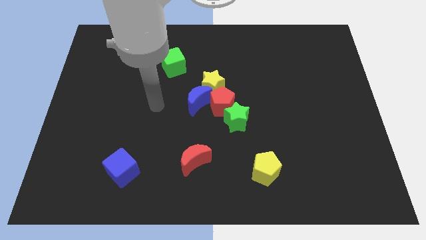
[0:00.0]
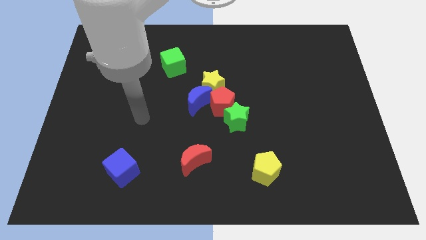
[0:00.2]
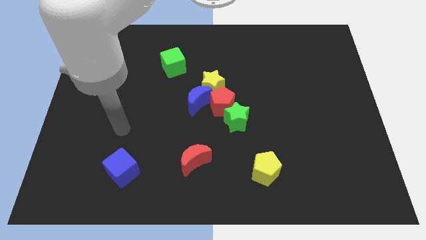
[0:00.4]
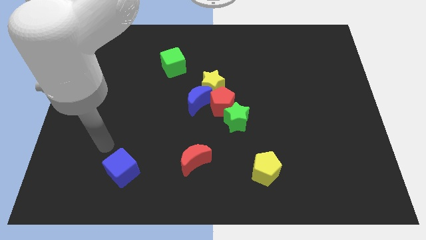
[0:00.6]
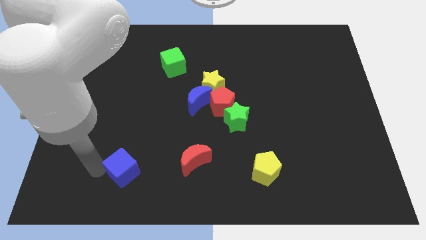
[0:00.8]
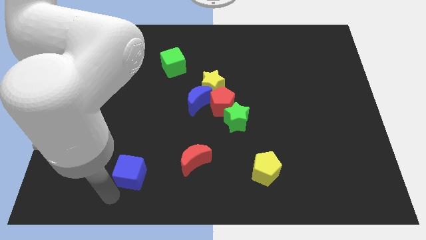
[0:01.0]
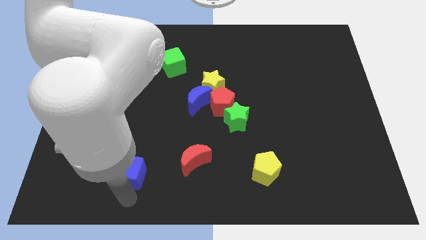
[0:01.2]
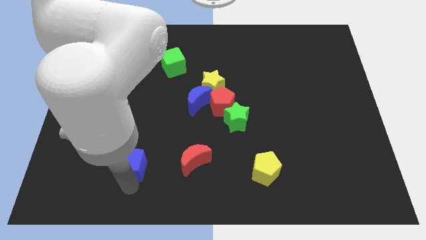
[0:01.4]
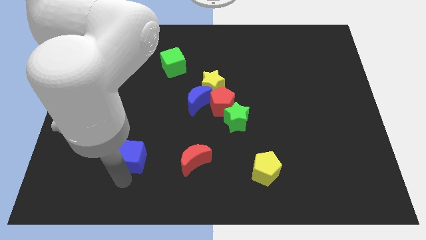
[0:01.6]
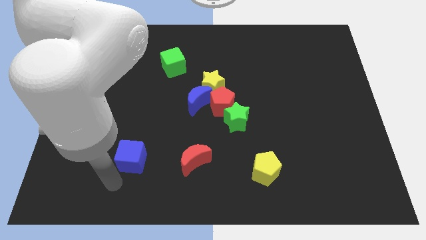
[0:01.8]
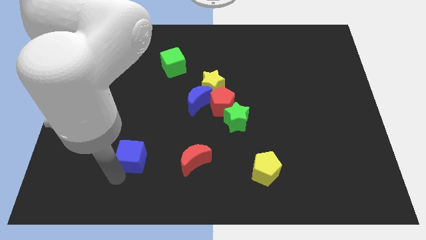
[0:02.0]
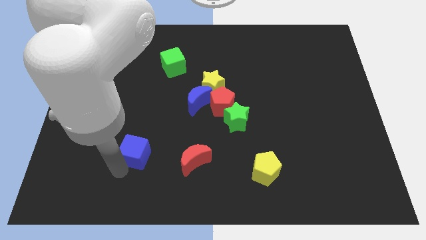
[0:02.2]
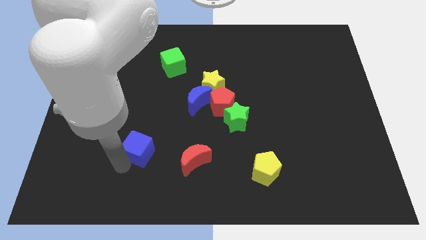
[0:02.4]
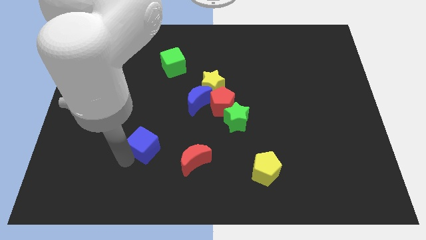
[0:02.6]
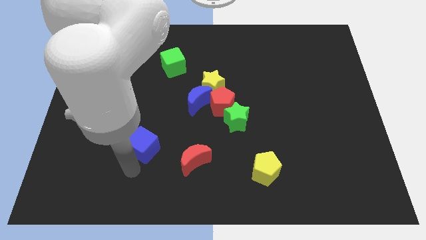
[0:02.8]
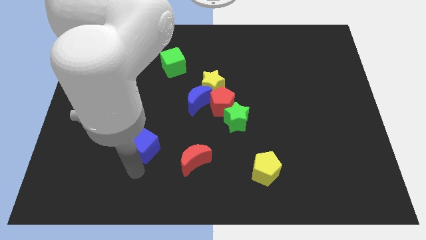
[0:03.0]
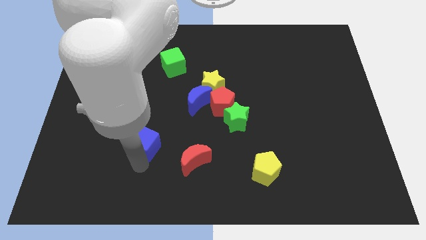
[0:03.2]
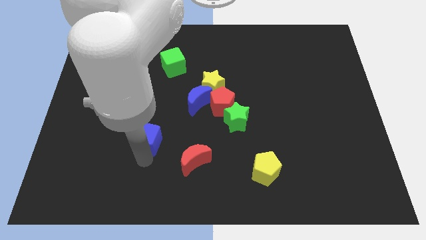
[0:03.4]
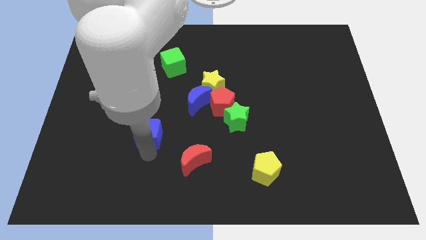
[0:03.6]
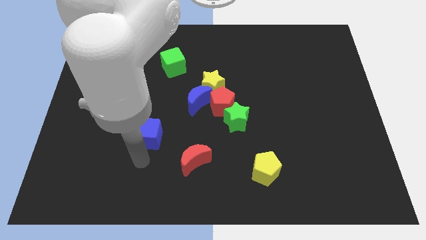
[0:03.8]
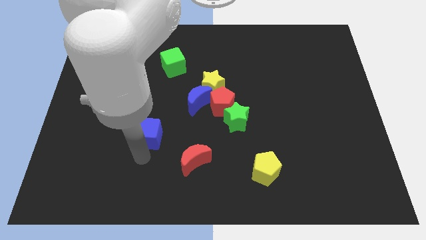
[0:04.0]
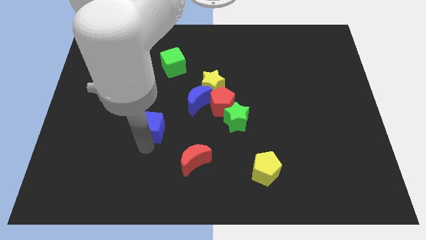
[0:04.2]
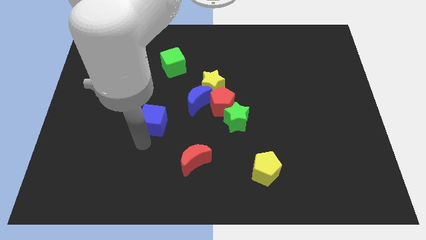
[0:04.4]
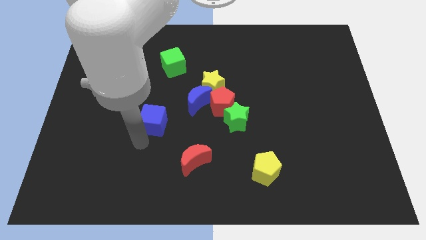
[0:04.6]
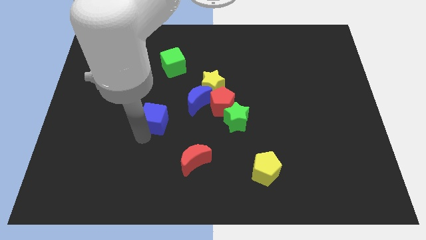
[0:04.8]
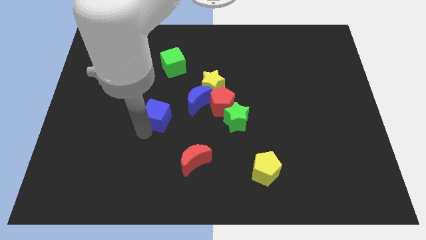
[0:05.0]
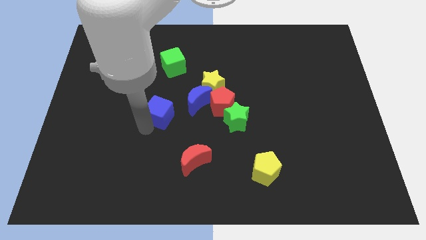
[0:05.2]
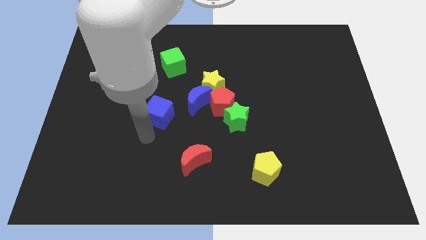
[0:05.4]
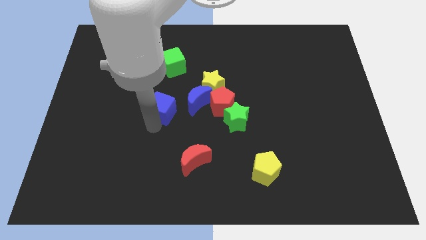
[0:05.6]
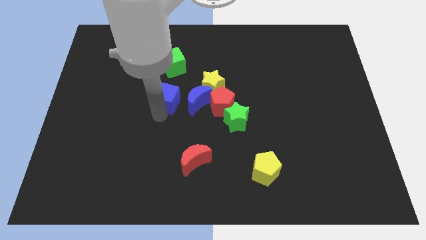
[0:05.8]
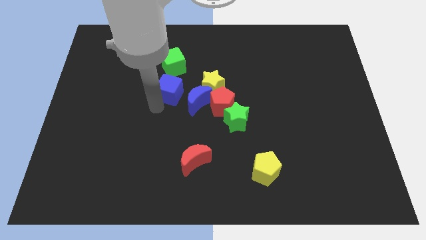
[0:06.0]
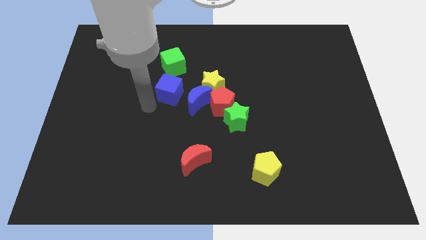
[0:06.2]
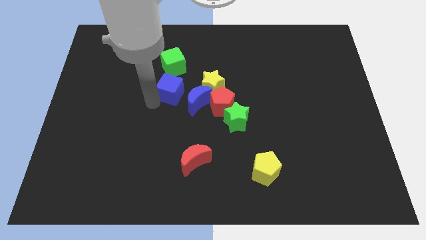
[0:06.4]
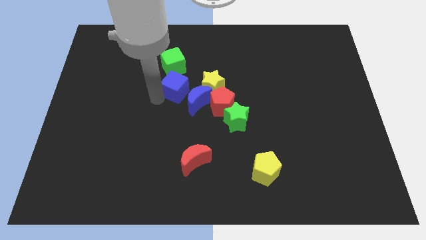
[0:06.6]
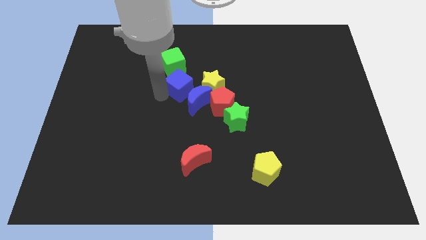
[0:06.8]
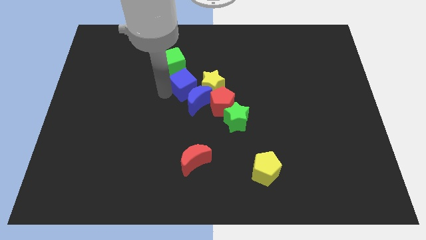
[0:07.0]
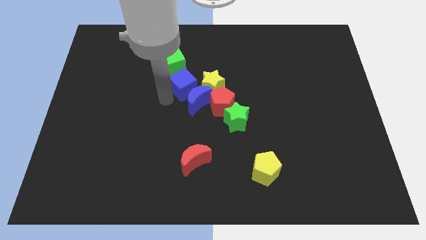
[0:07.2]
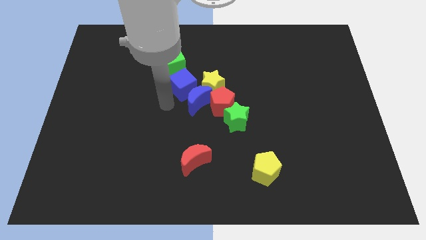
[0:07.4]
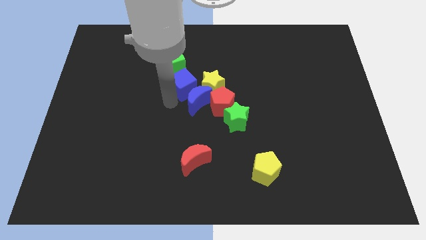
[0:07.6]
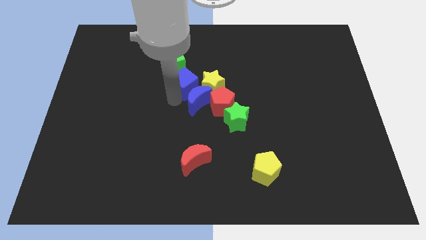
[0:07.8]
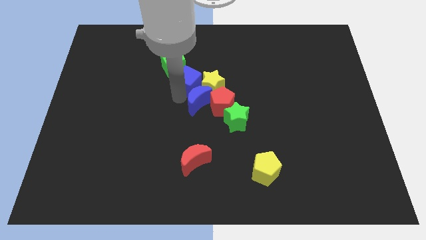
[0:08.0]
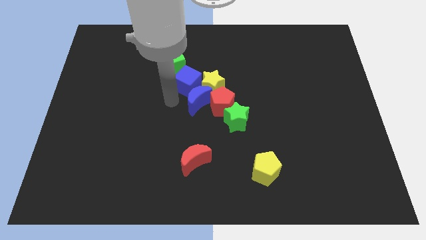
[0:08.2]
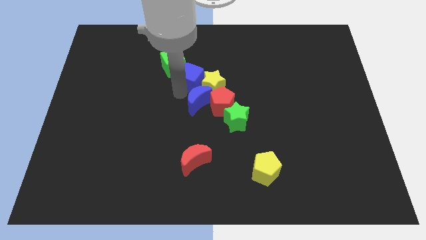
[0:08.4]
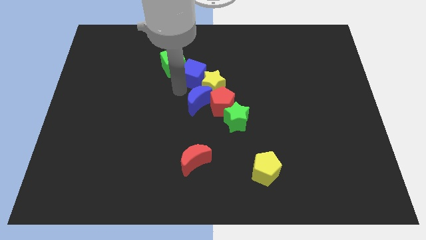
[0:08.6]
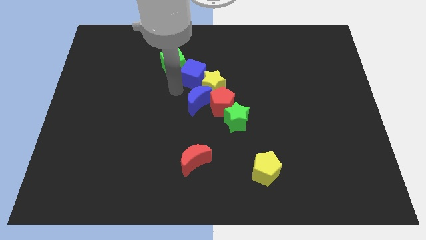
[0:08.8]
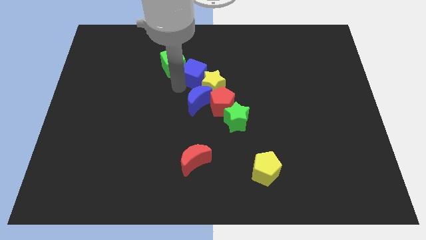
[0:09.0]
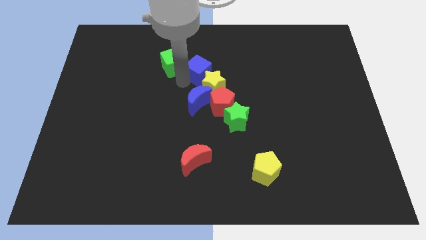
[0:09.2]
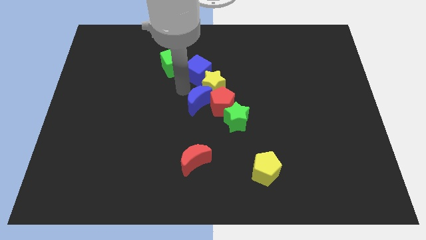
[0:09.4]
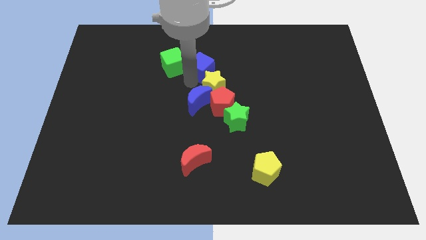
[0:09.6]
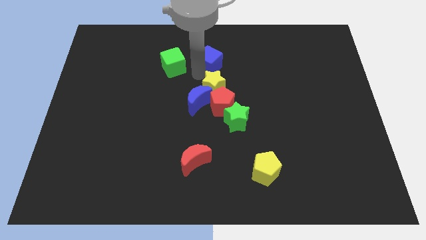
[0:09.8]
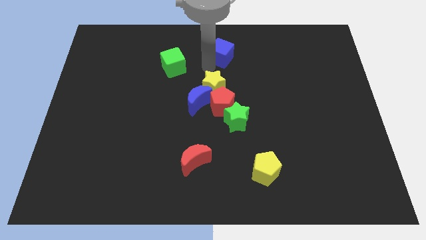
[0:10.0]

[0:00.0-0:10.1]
slide the blue cube to the top

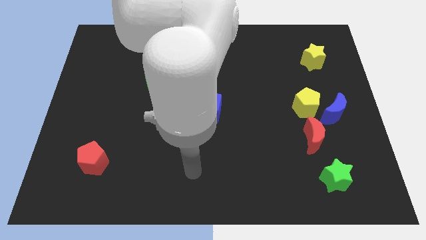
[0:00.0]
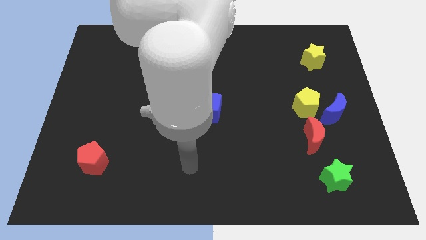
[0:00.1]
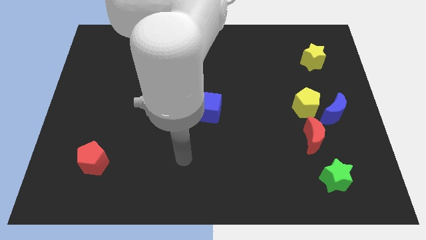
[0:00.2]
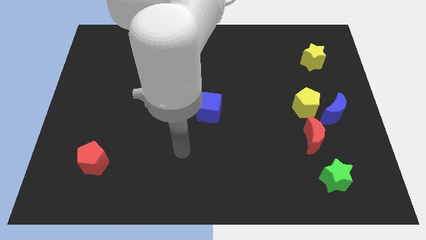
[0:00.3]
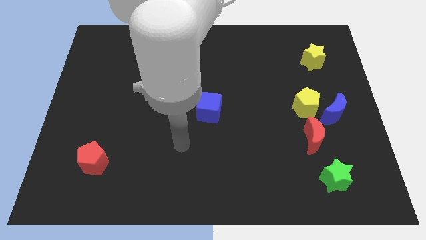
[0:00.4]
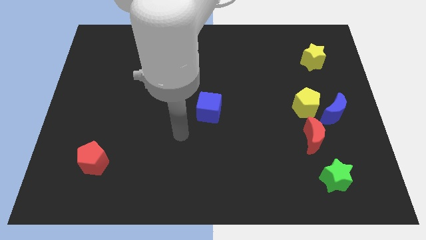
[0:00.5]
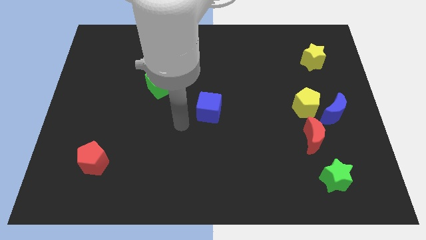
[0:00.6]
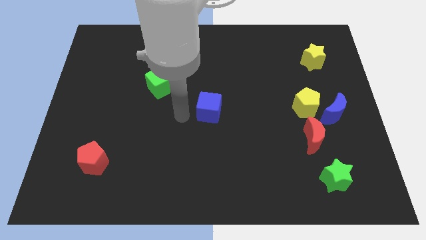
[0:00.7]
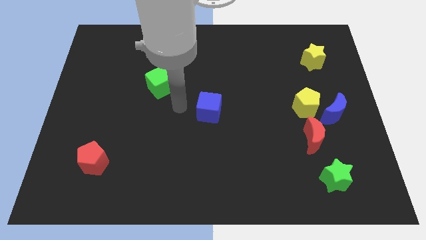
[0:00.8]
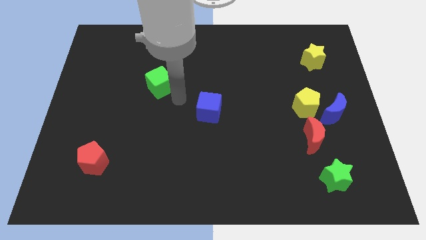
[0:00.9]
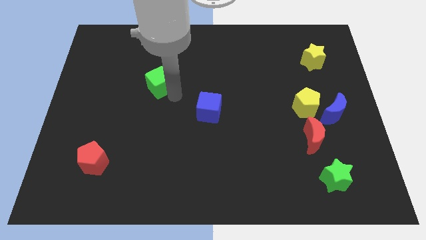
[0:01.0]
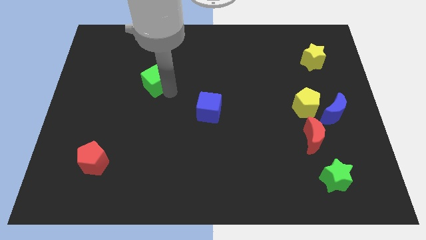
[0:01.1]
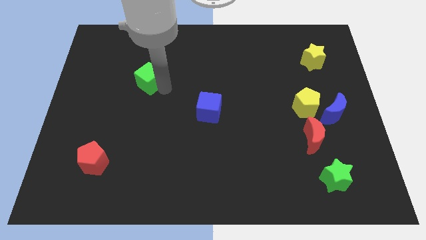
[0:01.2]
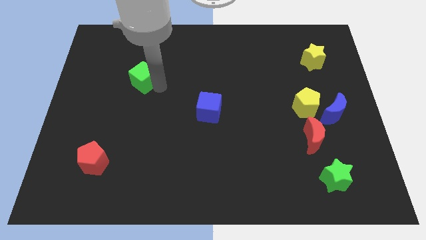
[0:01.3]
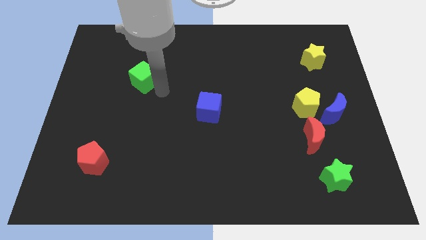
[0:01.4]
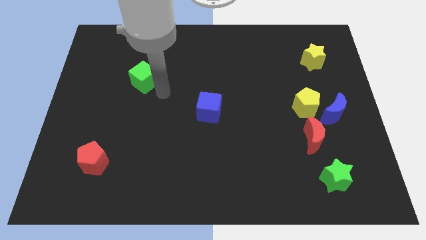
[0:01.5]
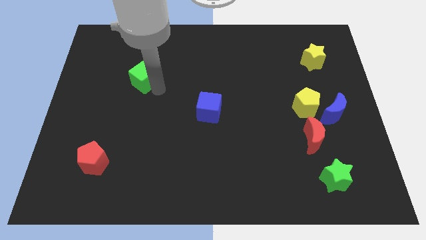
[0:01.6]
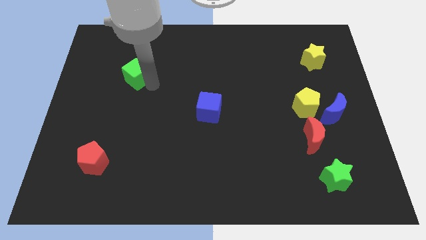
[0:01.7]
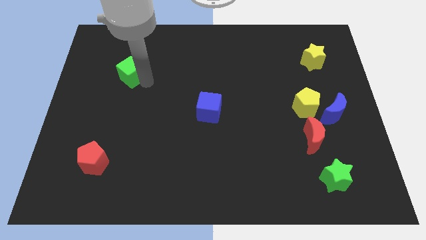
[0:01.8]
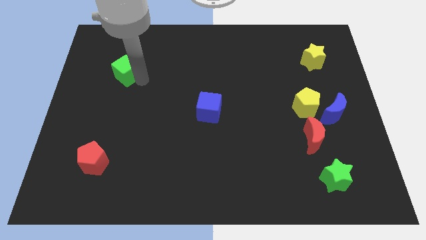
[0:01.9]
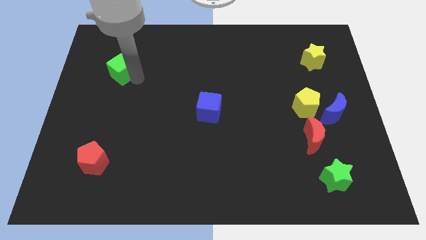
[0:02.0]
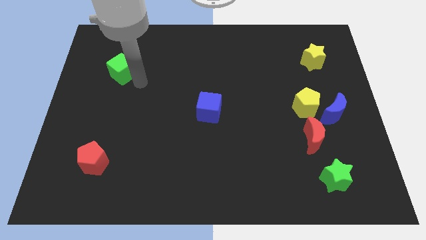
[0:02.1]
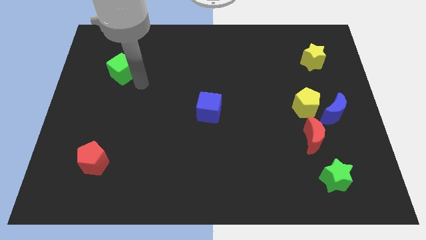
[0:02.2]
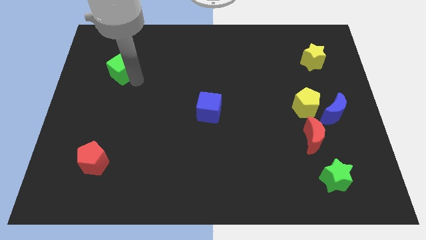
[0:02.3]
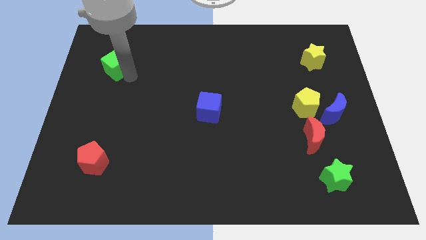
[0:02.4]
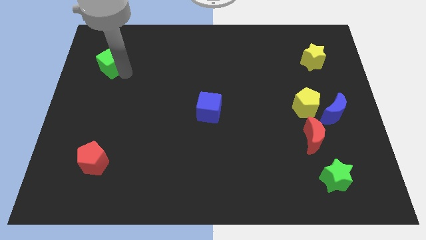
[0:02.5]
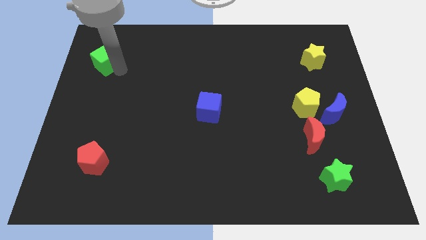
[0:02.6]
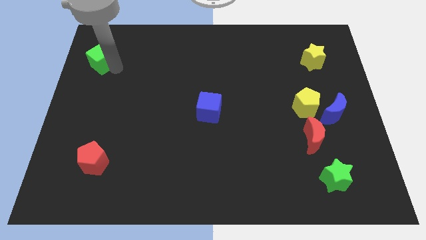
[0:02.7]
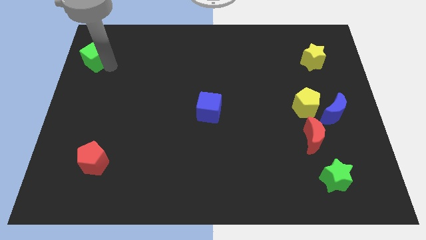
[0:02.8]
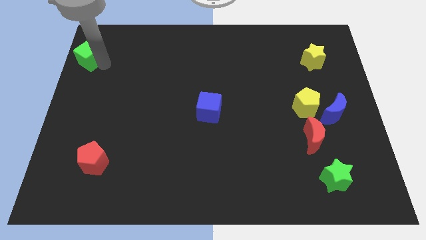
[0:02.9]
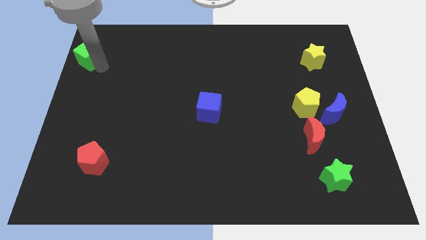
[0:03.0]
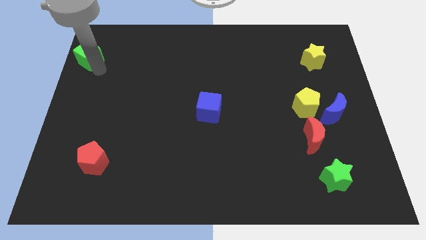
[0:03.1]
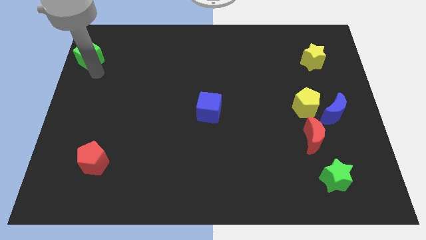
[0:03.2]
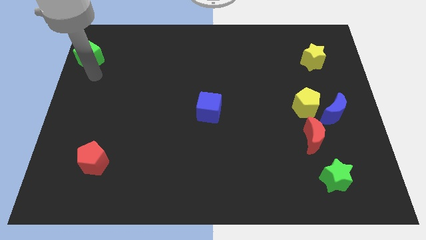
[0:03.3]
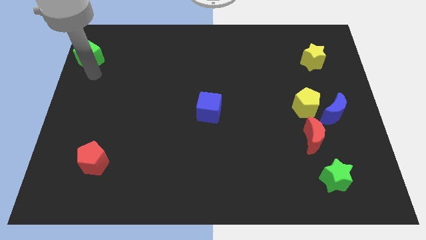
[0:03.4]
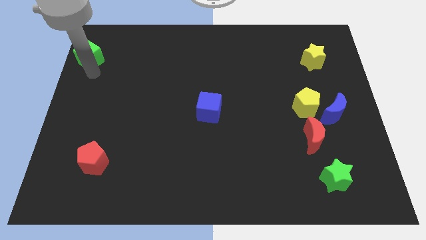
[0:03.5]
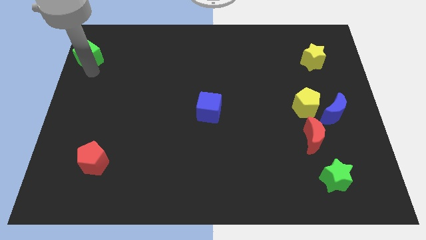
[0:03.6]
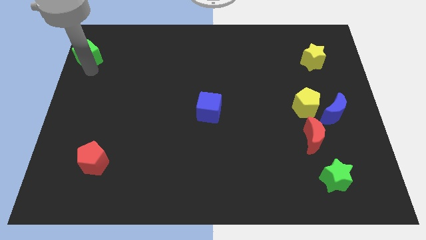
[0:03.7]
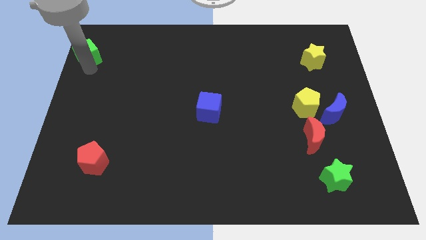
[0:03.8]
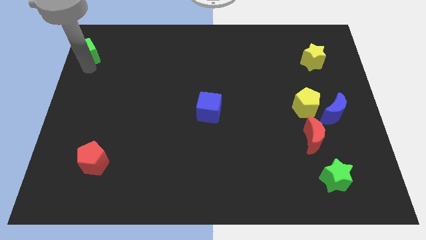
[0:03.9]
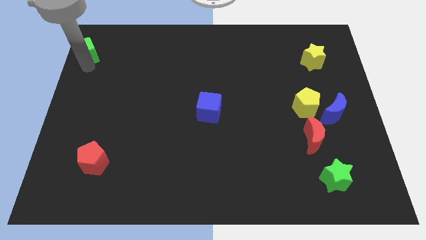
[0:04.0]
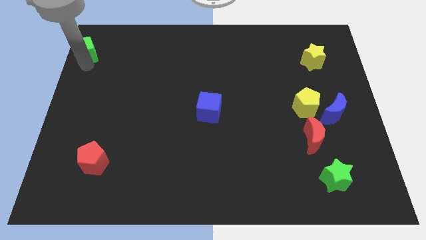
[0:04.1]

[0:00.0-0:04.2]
put the green cube to the top left
